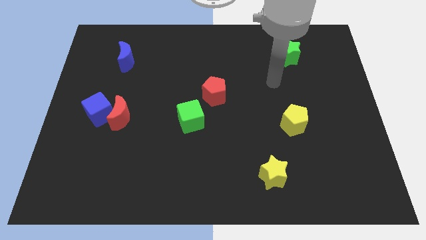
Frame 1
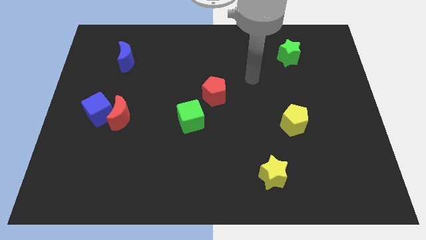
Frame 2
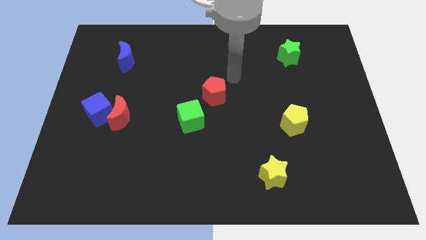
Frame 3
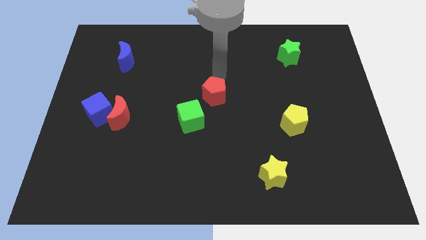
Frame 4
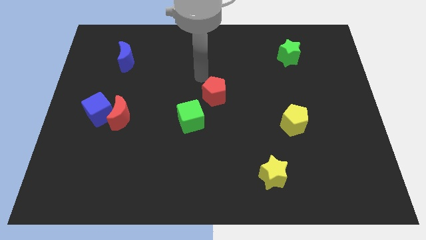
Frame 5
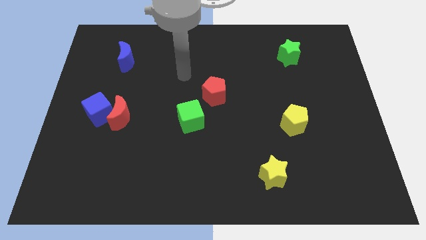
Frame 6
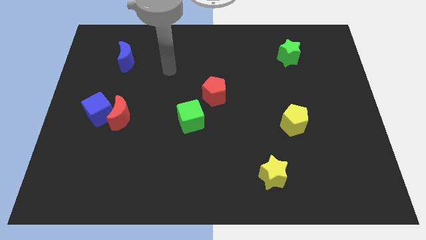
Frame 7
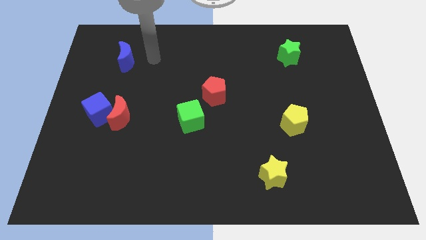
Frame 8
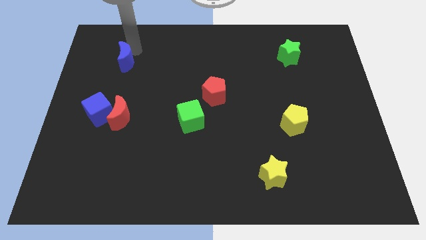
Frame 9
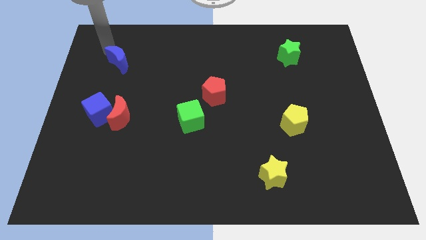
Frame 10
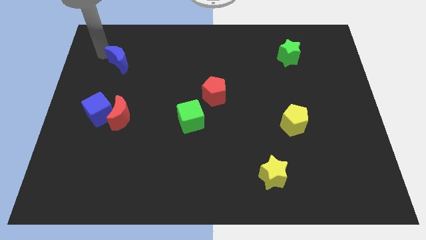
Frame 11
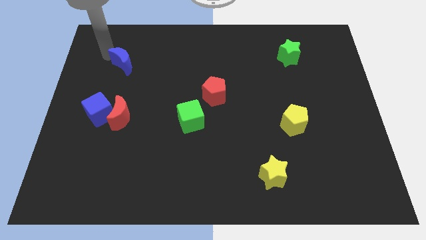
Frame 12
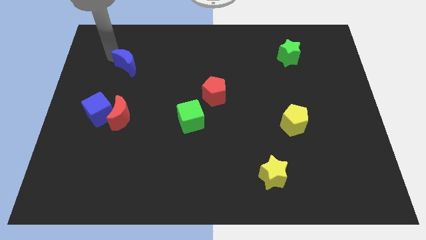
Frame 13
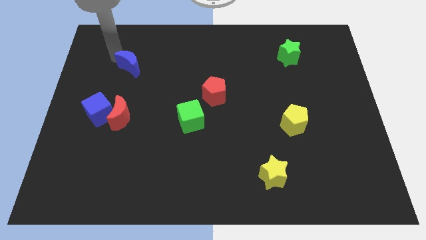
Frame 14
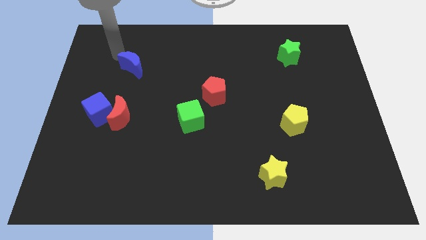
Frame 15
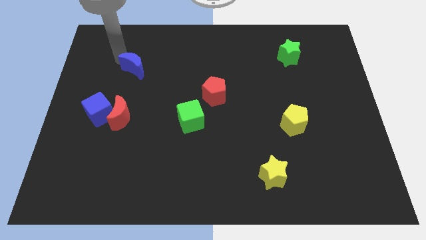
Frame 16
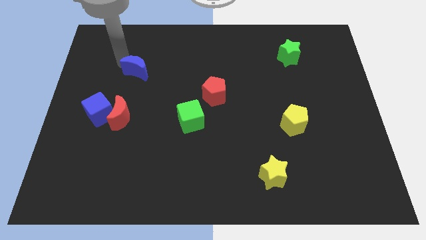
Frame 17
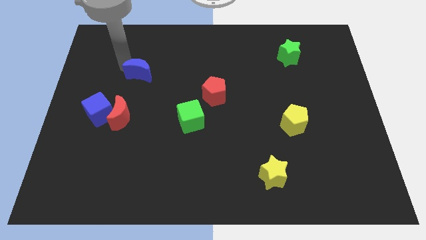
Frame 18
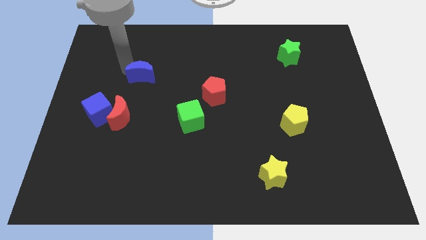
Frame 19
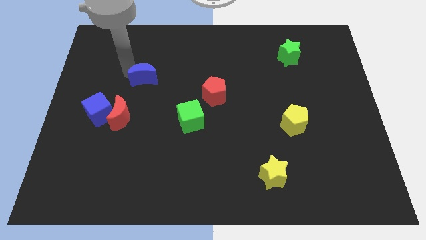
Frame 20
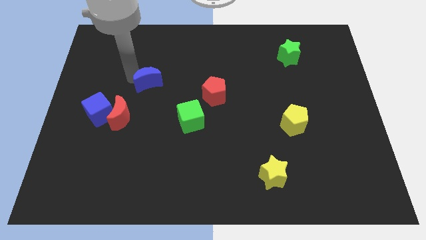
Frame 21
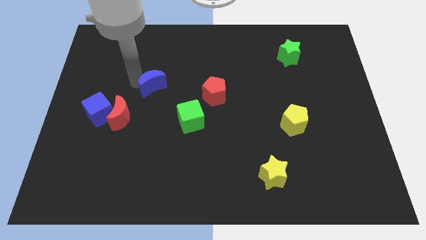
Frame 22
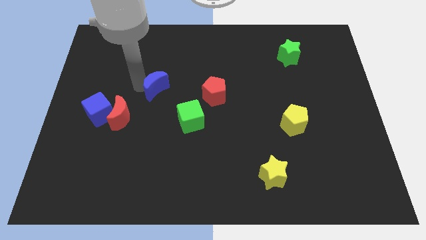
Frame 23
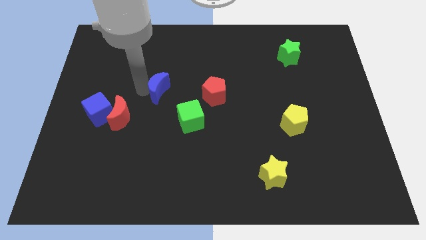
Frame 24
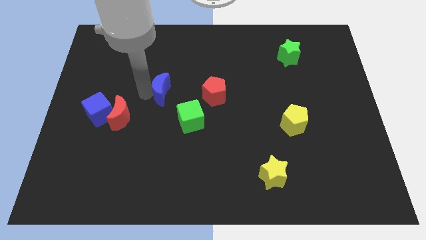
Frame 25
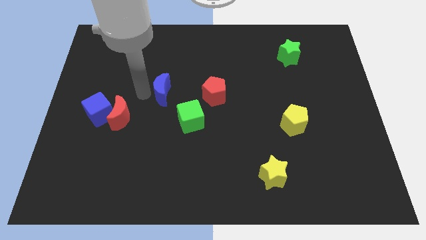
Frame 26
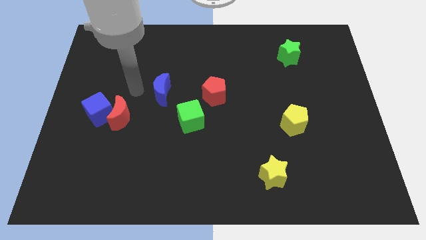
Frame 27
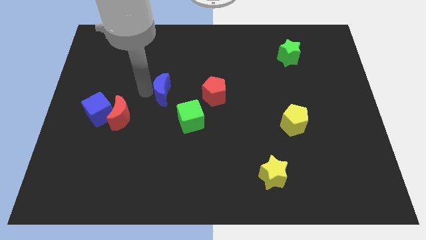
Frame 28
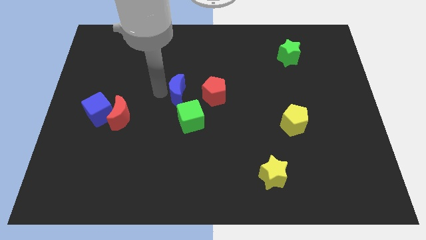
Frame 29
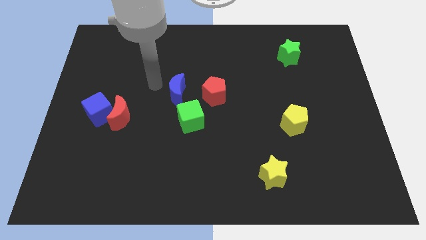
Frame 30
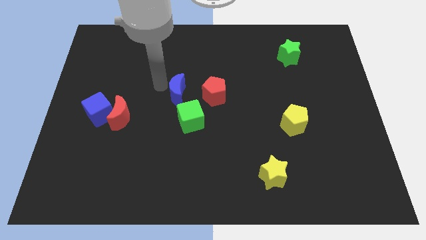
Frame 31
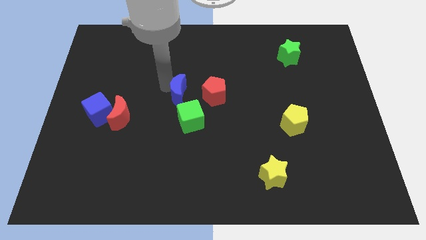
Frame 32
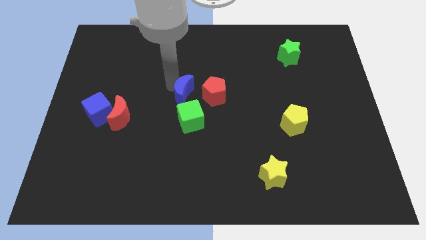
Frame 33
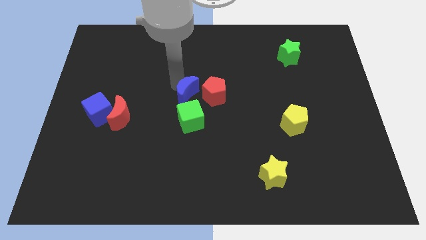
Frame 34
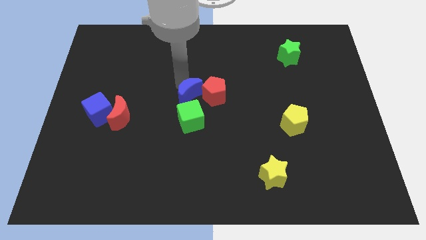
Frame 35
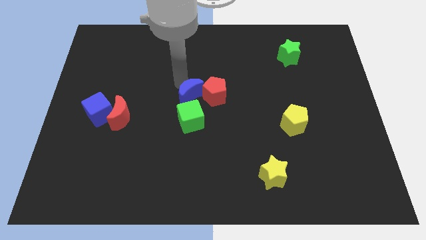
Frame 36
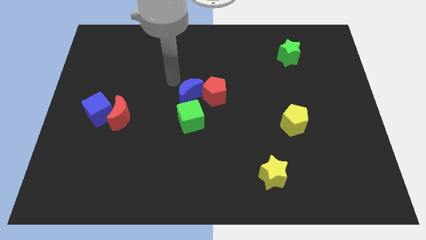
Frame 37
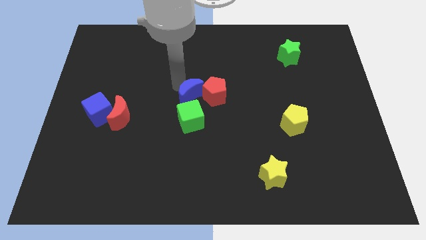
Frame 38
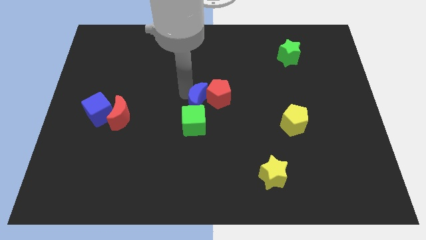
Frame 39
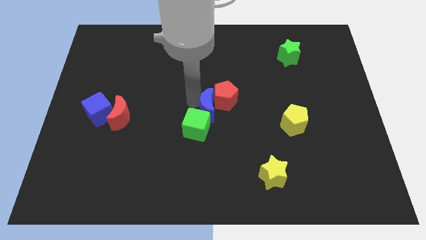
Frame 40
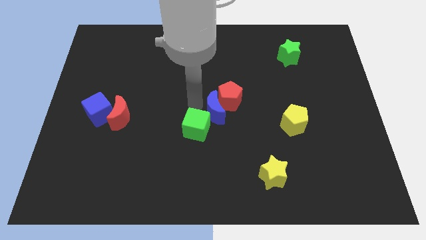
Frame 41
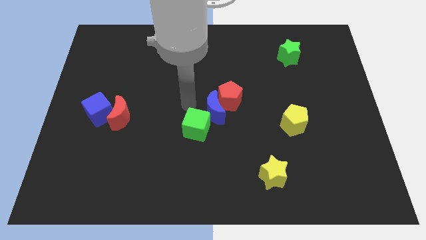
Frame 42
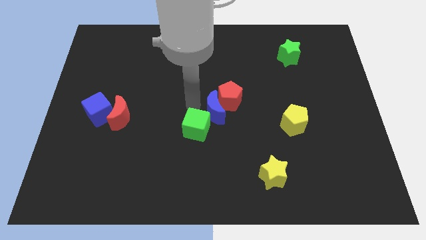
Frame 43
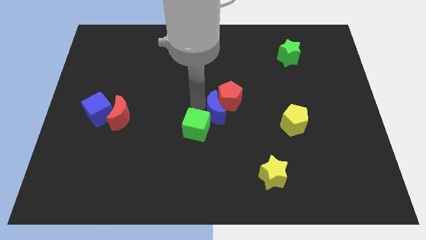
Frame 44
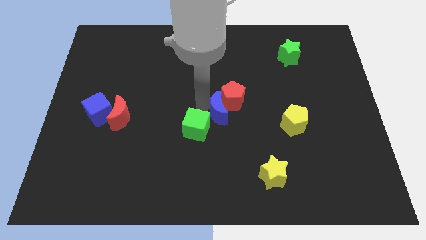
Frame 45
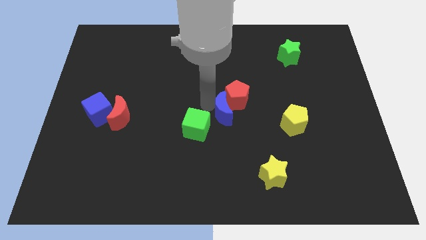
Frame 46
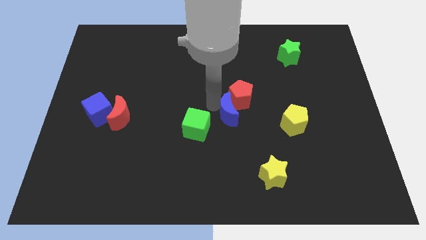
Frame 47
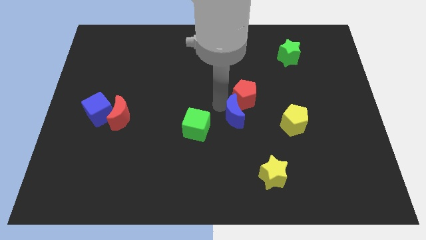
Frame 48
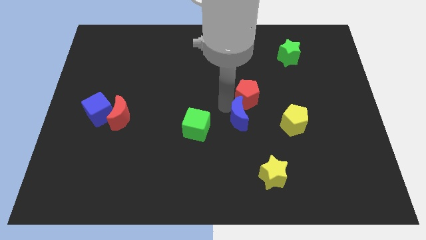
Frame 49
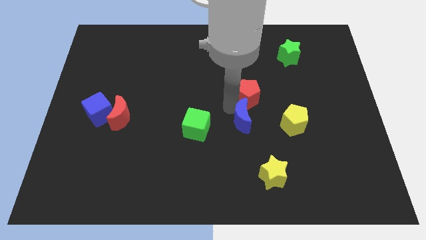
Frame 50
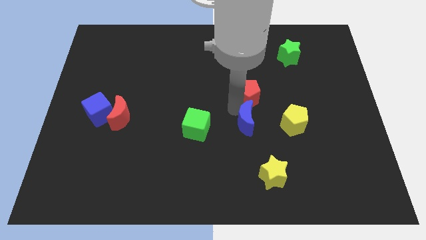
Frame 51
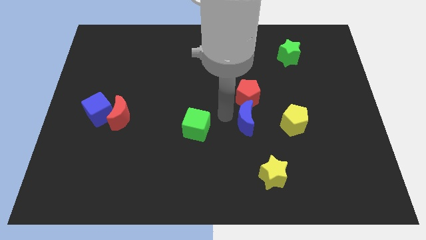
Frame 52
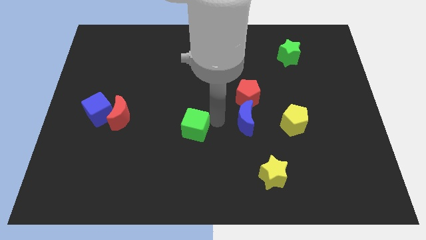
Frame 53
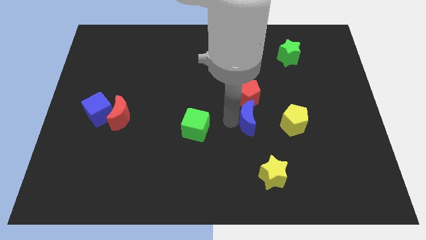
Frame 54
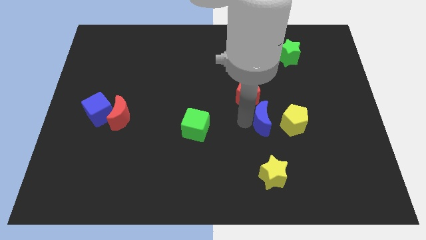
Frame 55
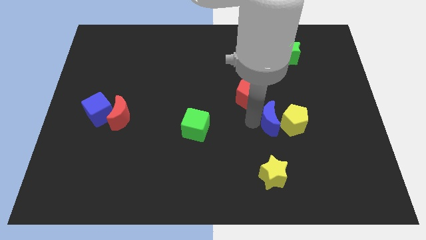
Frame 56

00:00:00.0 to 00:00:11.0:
put the blue moon close to the yellow pentagon

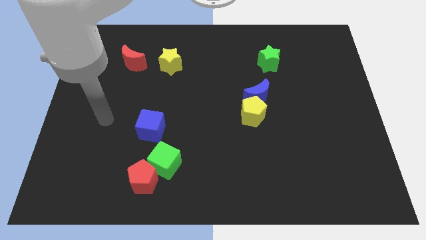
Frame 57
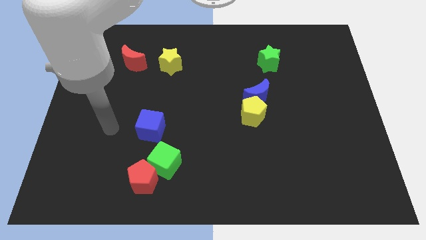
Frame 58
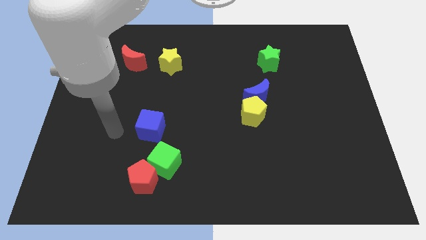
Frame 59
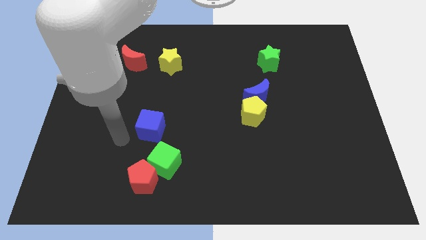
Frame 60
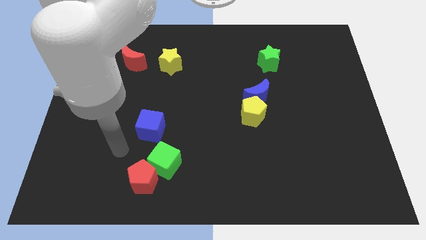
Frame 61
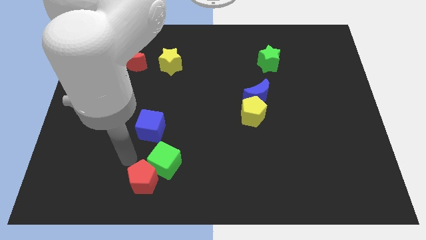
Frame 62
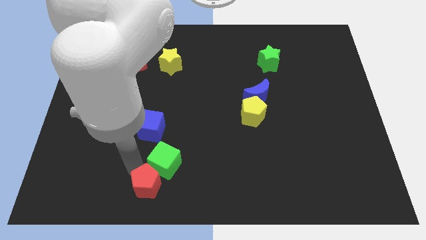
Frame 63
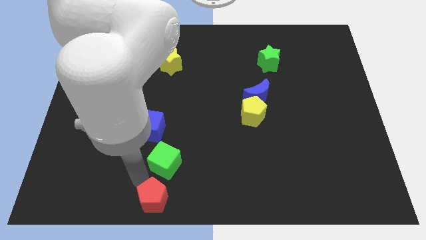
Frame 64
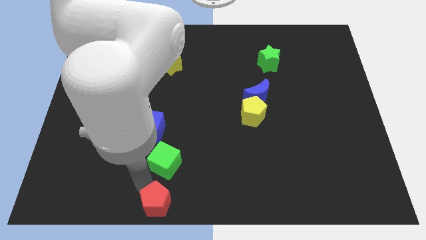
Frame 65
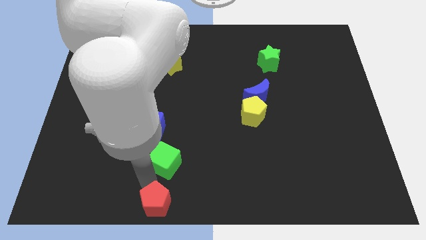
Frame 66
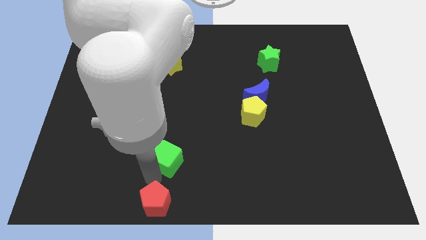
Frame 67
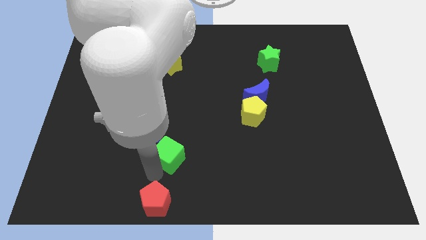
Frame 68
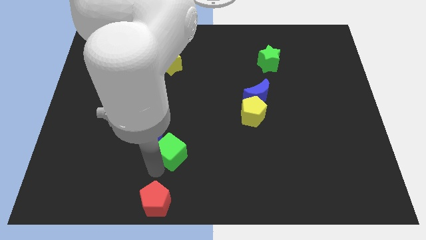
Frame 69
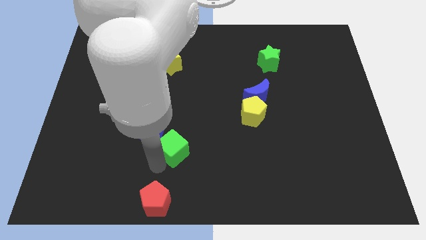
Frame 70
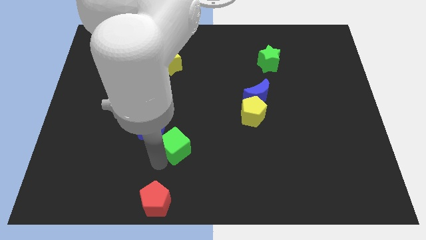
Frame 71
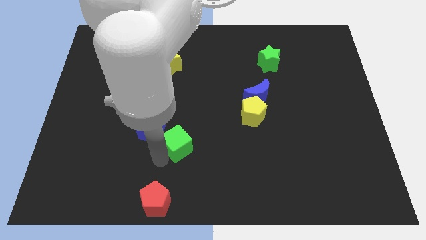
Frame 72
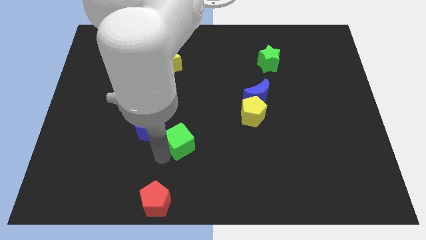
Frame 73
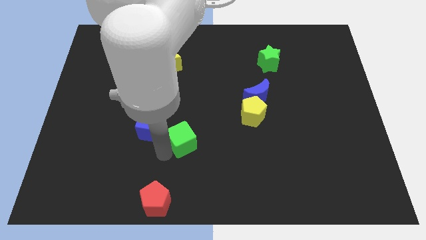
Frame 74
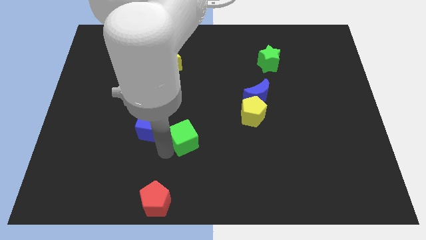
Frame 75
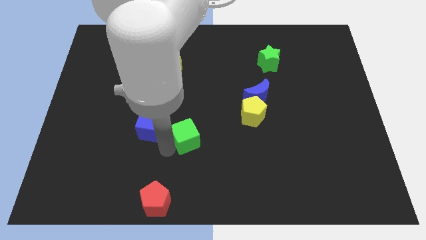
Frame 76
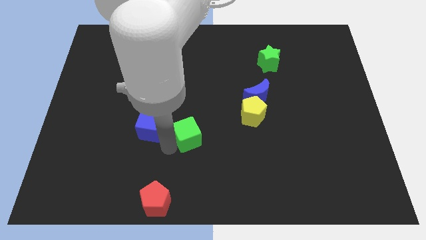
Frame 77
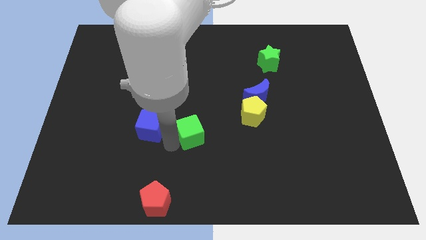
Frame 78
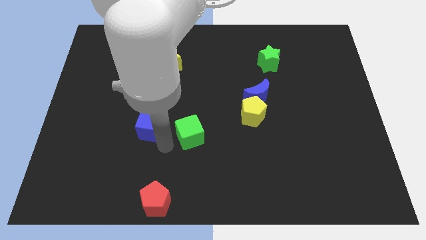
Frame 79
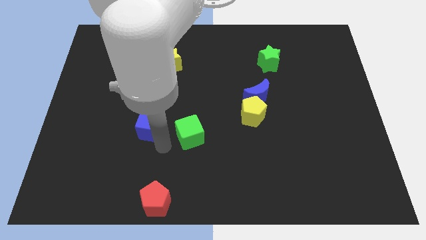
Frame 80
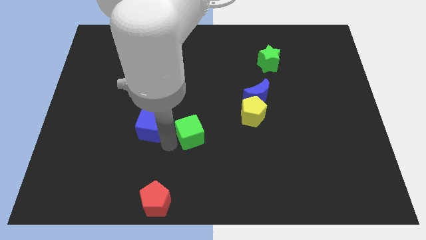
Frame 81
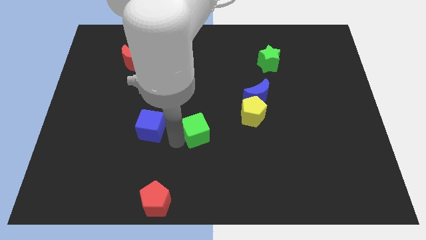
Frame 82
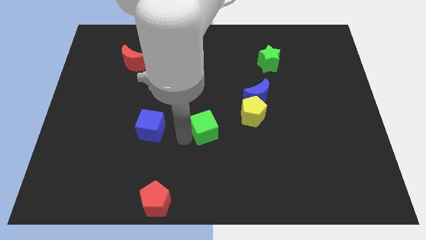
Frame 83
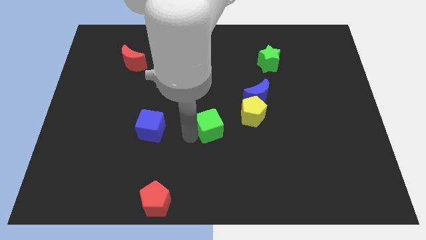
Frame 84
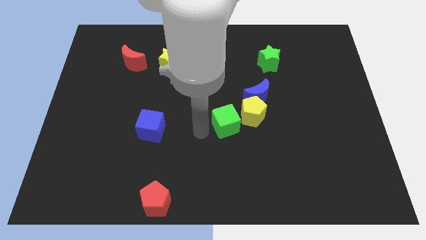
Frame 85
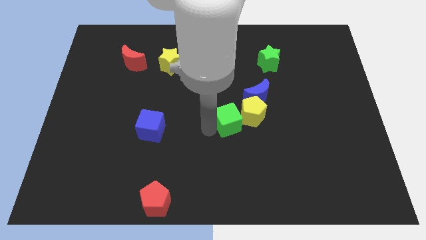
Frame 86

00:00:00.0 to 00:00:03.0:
put the green cube to the yellow pentagon
